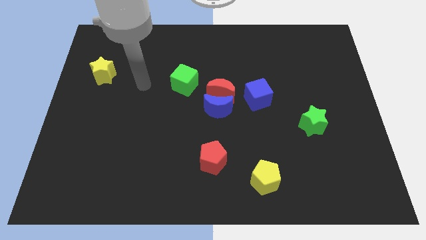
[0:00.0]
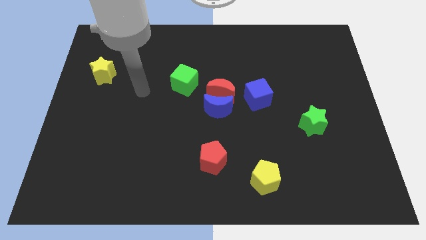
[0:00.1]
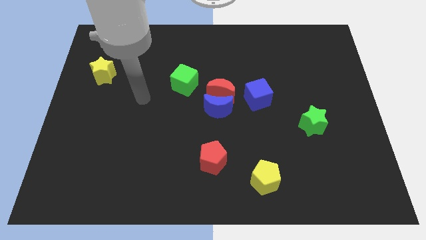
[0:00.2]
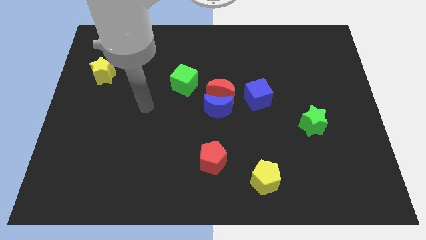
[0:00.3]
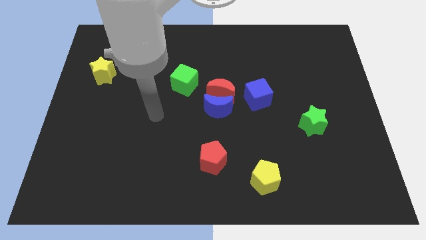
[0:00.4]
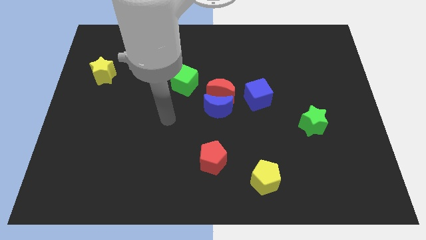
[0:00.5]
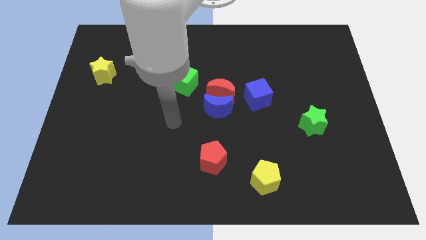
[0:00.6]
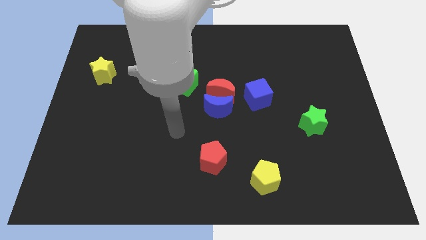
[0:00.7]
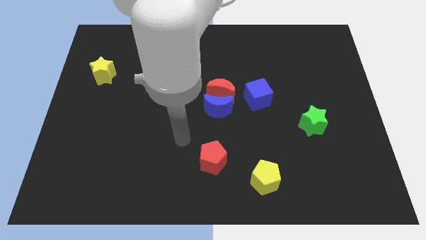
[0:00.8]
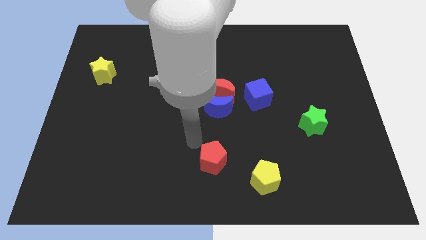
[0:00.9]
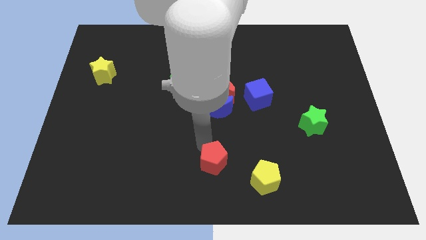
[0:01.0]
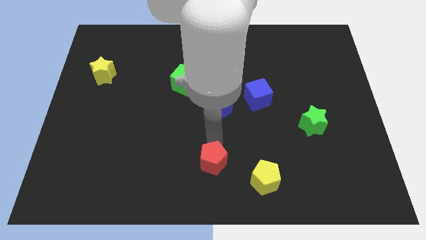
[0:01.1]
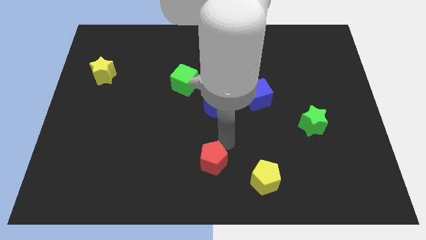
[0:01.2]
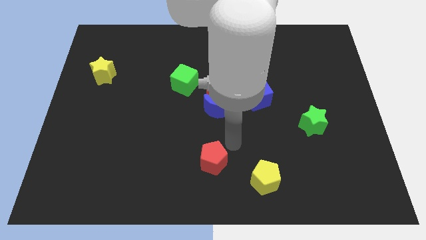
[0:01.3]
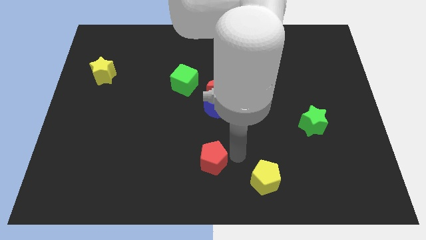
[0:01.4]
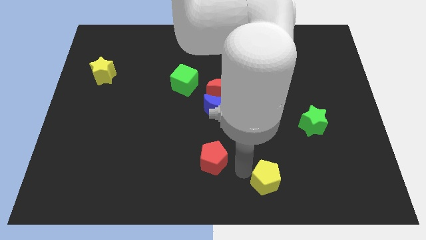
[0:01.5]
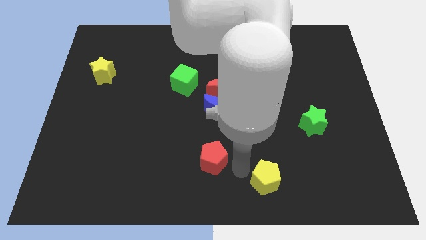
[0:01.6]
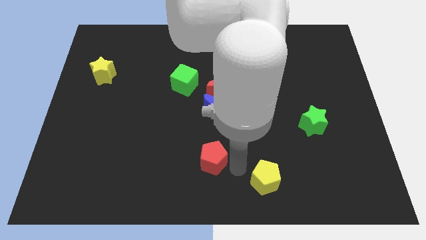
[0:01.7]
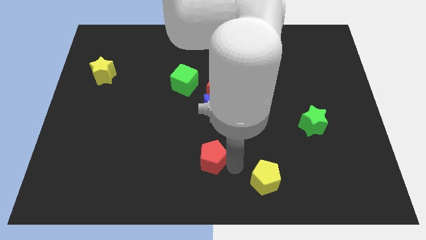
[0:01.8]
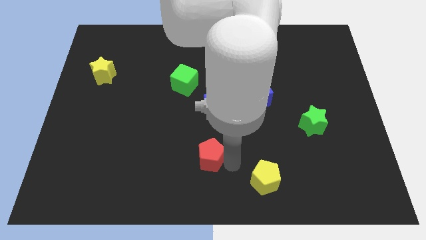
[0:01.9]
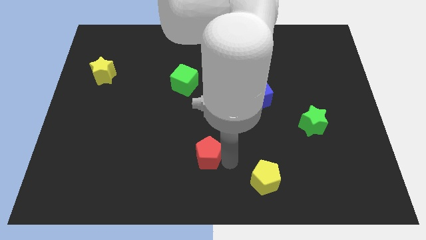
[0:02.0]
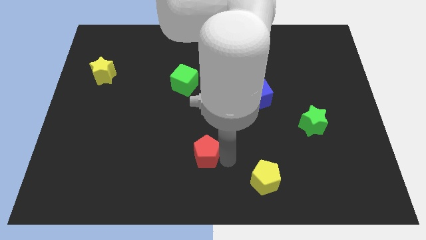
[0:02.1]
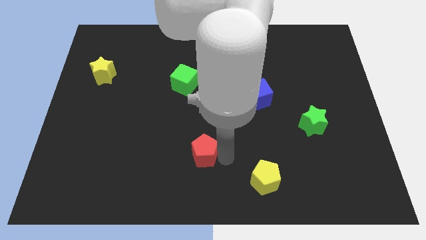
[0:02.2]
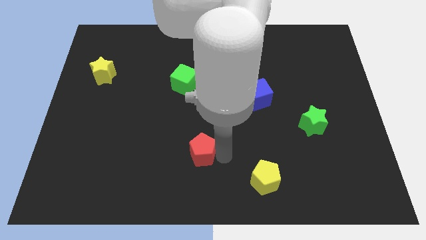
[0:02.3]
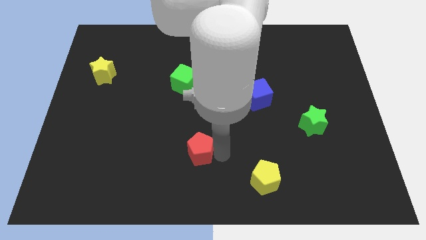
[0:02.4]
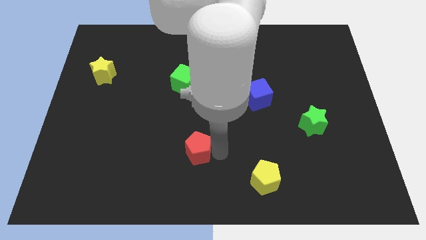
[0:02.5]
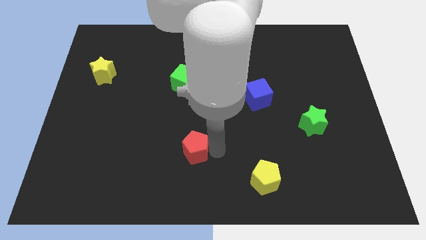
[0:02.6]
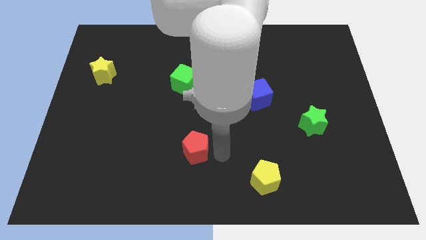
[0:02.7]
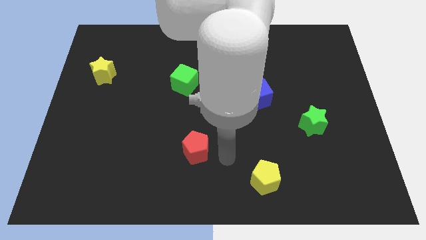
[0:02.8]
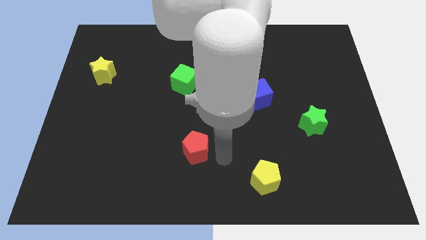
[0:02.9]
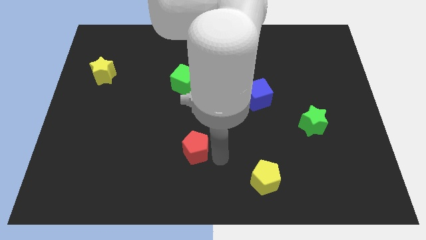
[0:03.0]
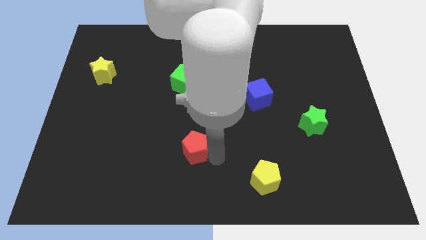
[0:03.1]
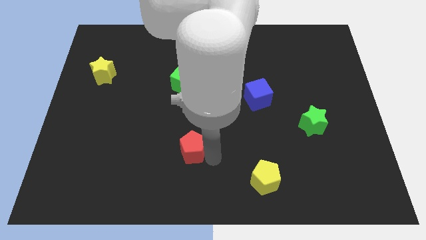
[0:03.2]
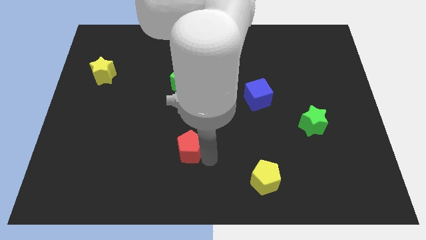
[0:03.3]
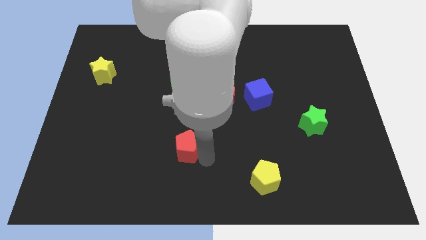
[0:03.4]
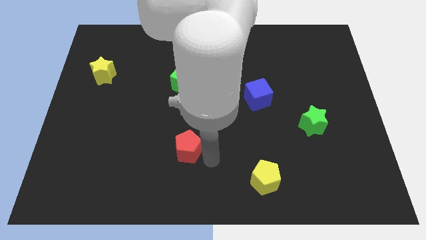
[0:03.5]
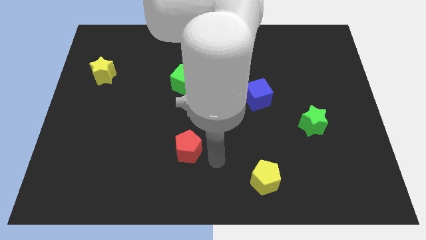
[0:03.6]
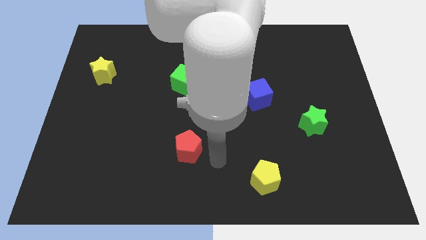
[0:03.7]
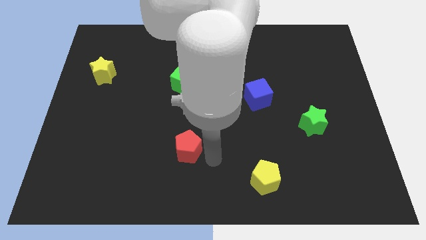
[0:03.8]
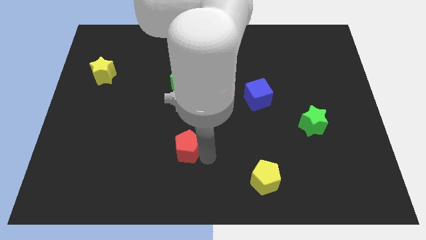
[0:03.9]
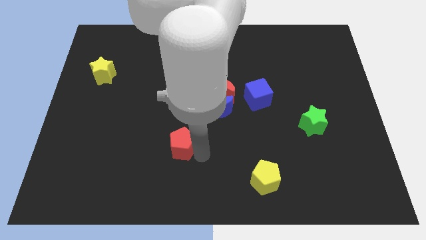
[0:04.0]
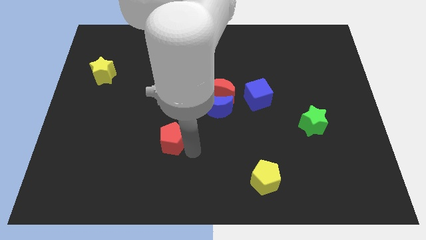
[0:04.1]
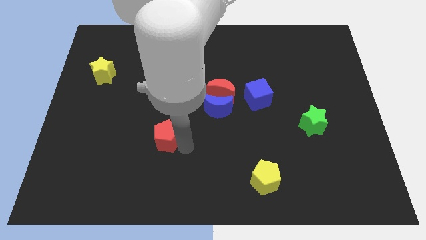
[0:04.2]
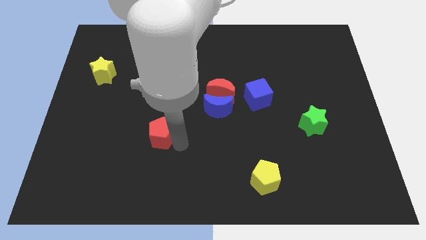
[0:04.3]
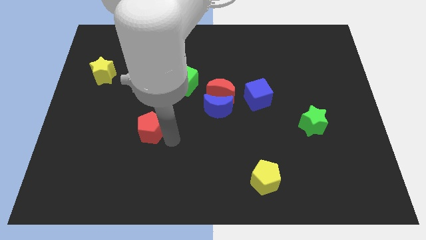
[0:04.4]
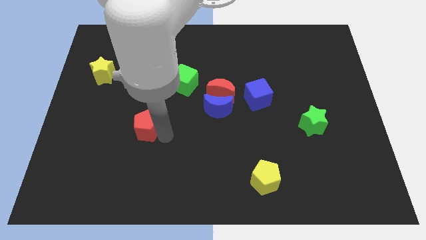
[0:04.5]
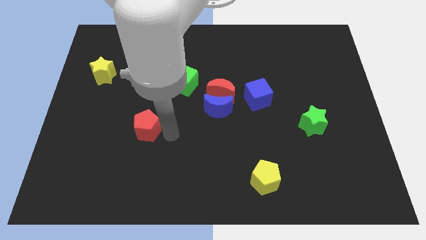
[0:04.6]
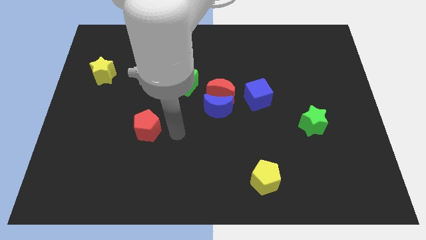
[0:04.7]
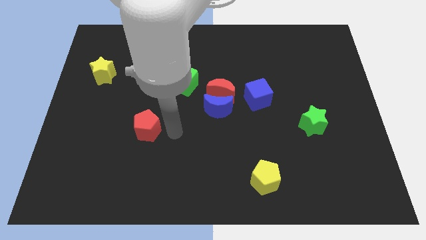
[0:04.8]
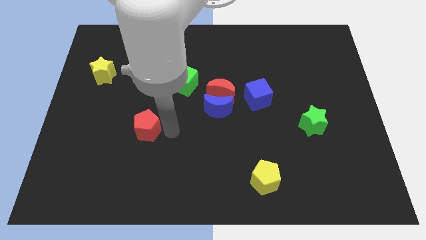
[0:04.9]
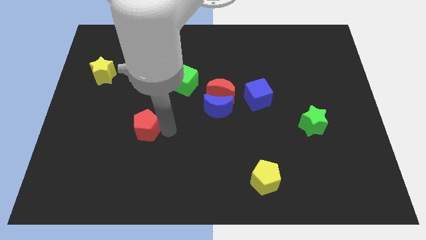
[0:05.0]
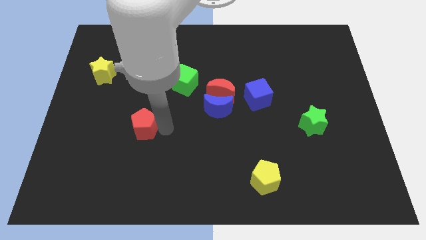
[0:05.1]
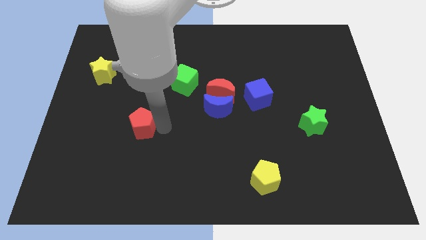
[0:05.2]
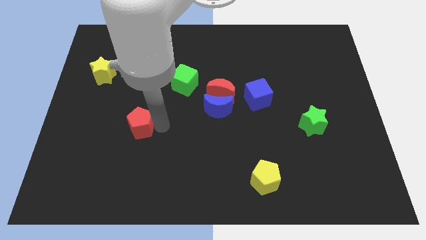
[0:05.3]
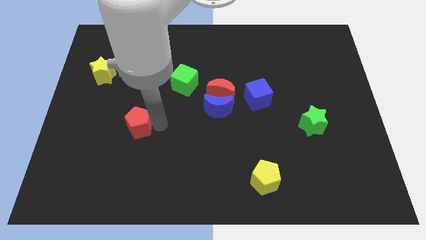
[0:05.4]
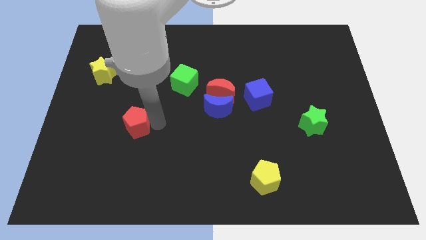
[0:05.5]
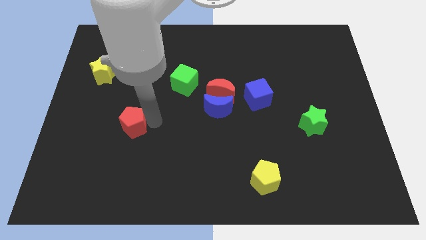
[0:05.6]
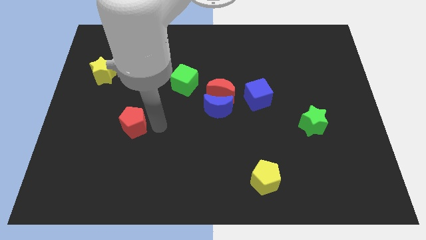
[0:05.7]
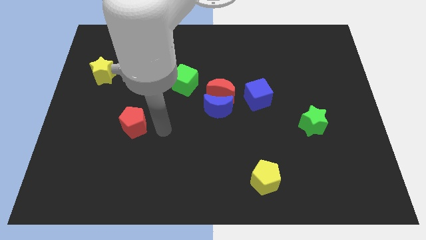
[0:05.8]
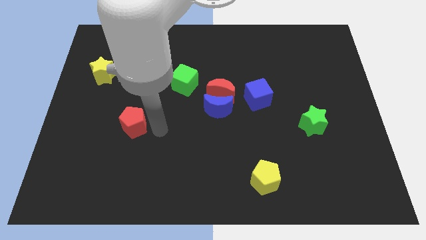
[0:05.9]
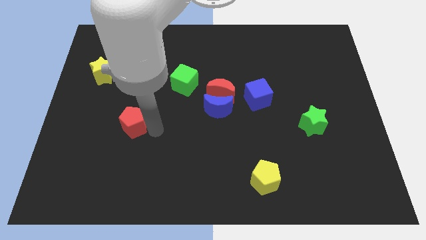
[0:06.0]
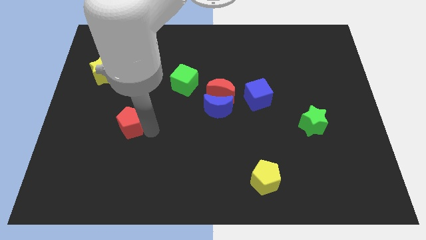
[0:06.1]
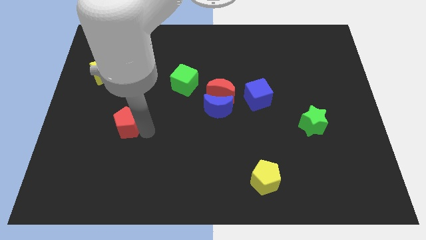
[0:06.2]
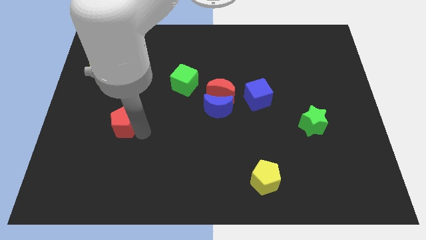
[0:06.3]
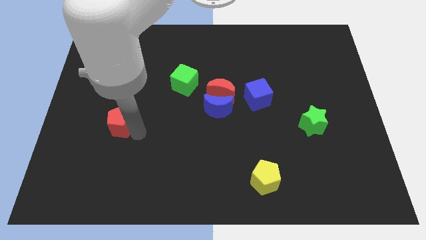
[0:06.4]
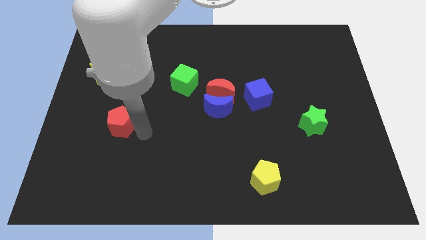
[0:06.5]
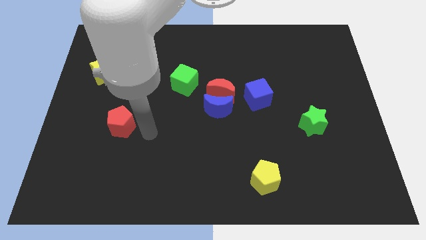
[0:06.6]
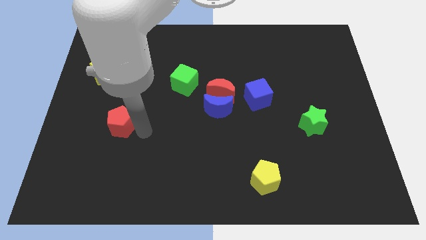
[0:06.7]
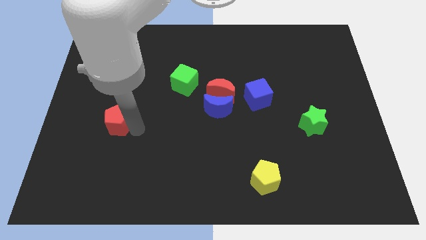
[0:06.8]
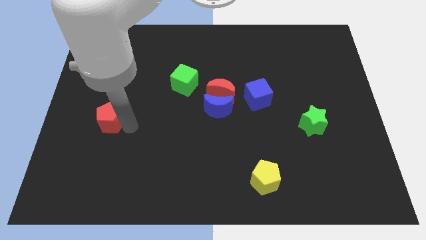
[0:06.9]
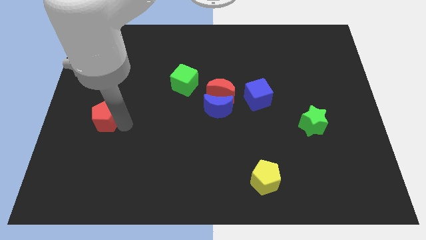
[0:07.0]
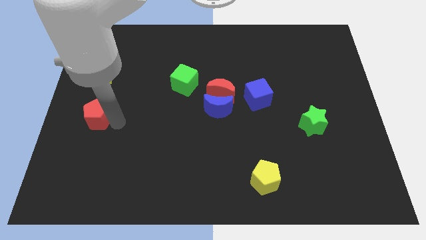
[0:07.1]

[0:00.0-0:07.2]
put the red pentagon to the left side of the board
